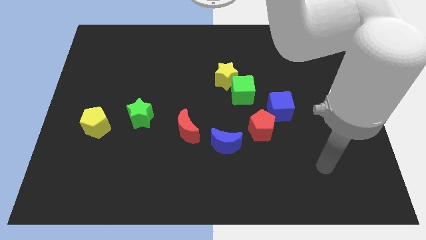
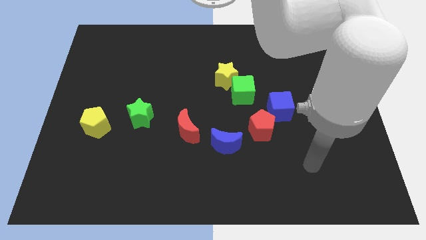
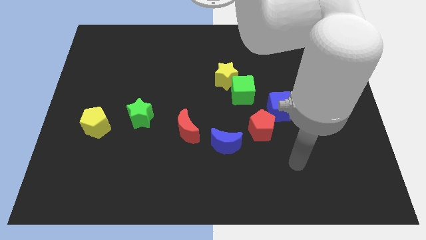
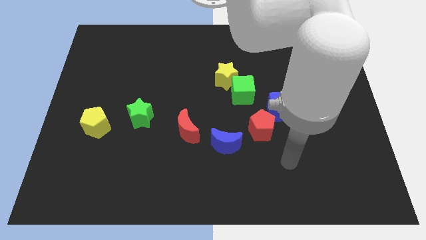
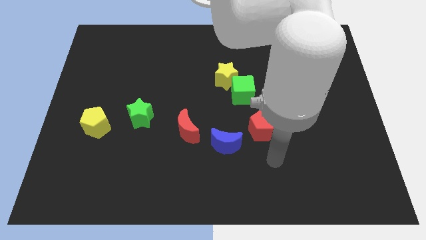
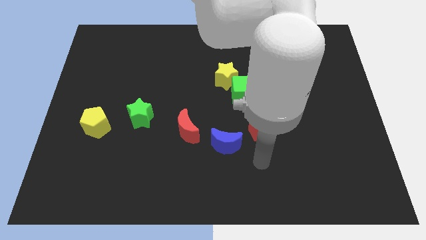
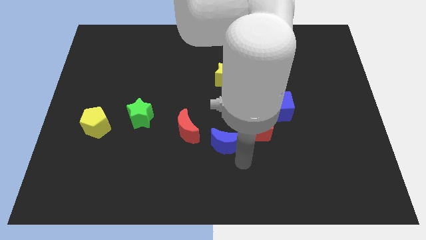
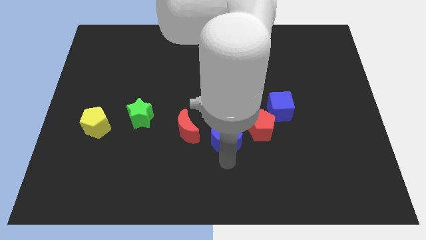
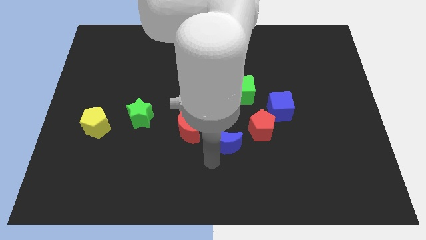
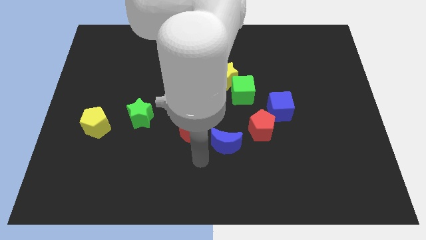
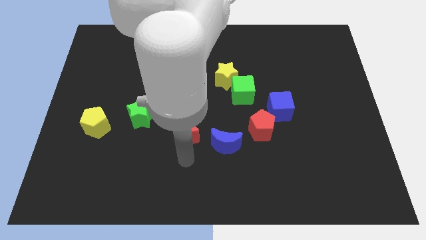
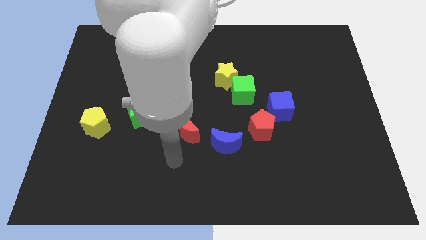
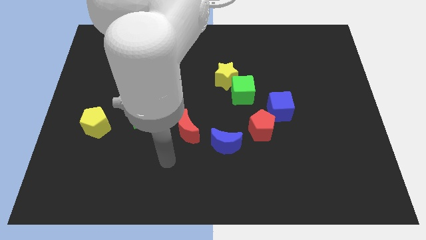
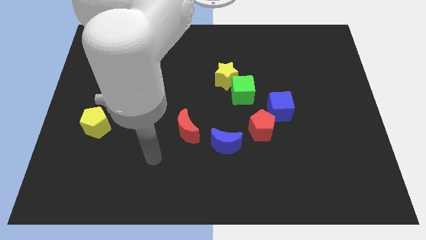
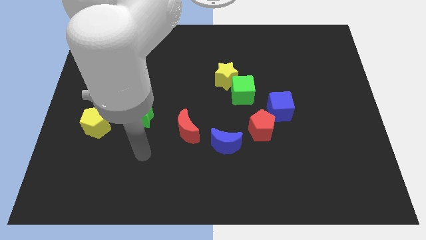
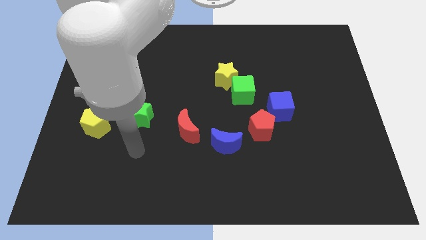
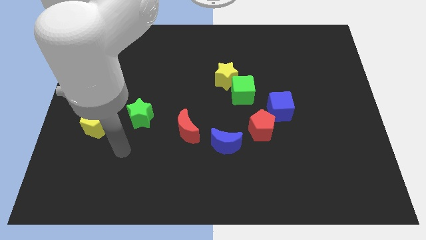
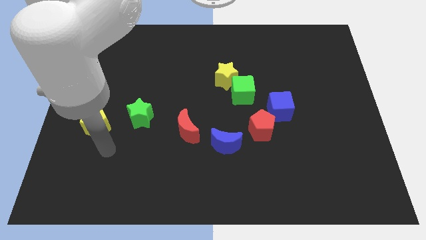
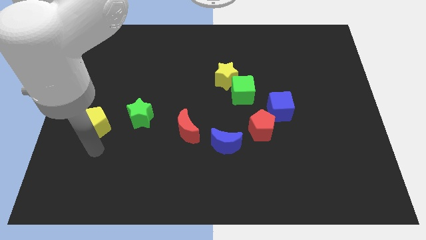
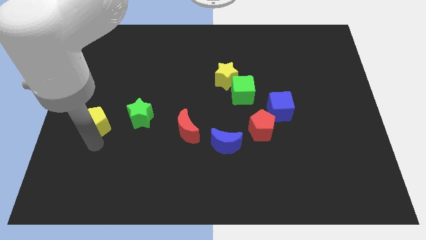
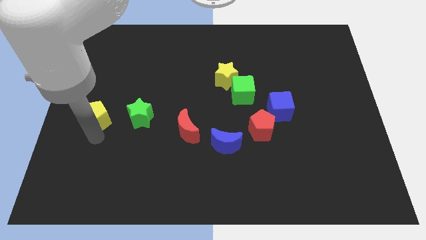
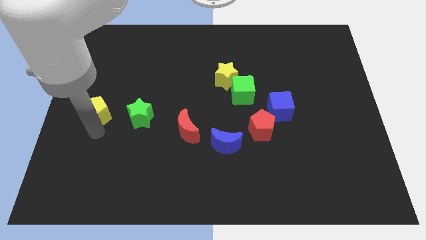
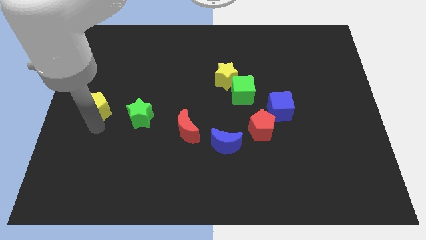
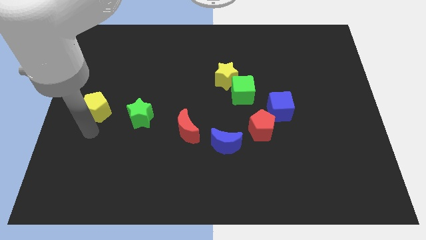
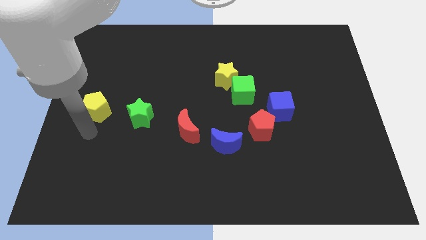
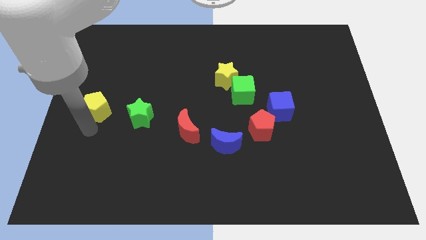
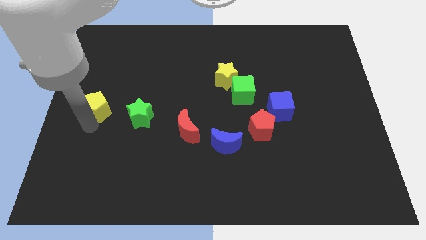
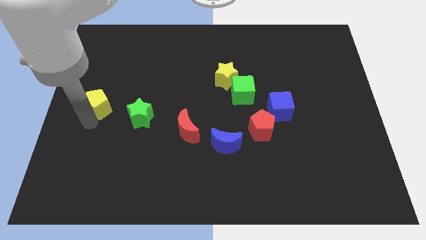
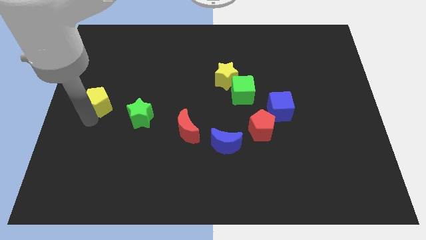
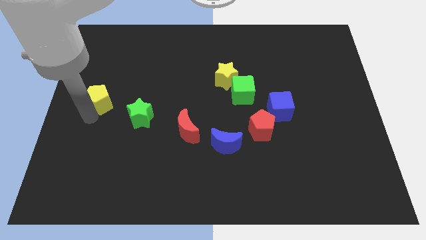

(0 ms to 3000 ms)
slightly push the yellow pentagon upwards

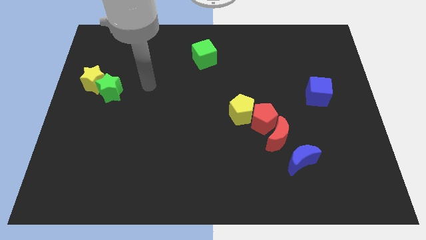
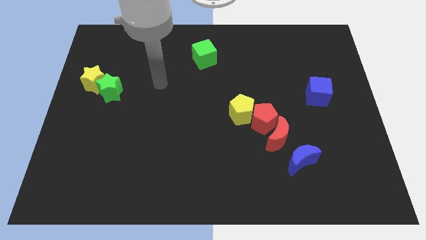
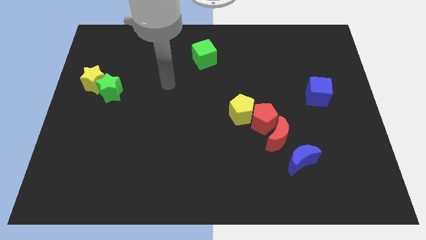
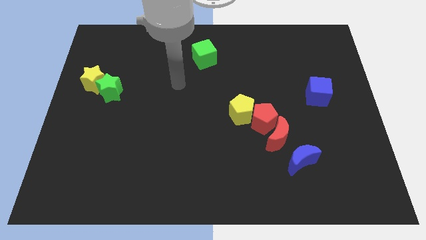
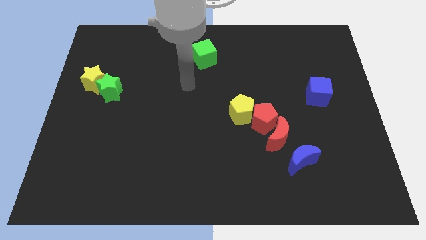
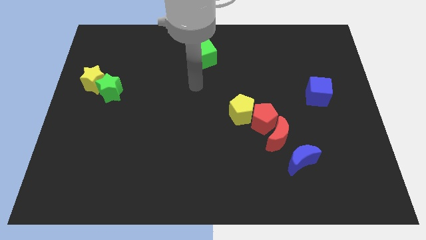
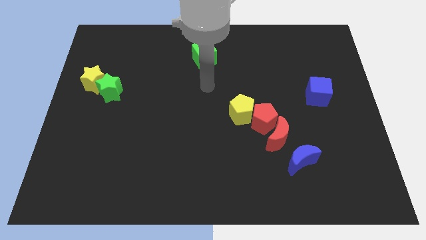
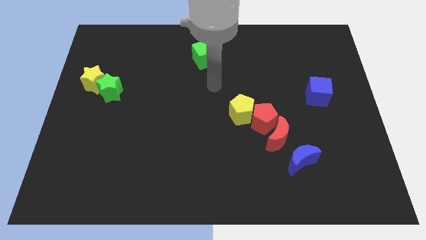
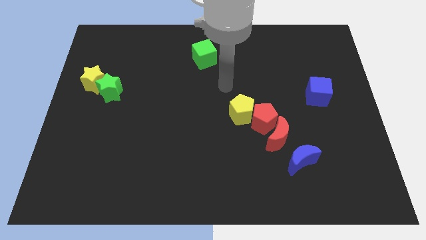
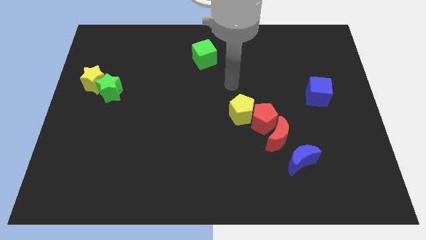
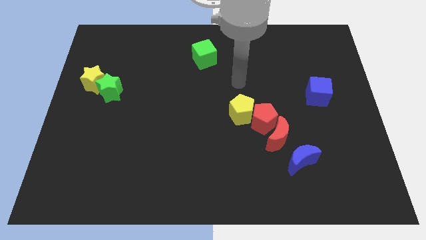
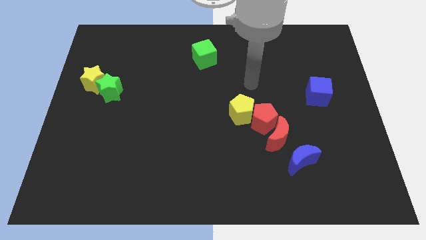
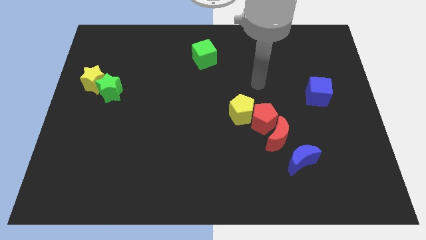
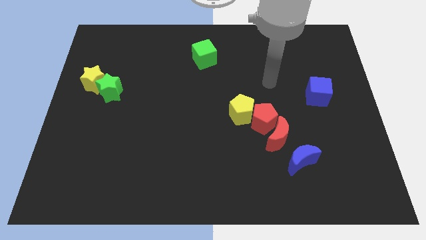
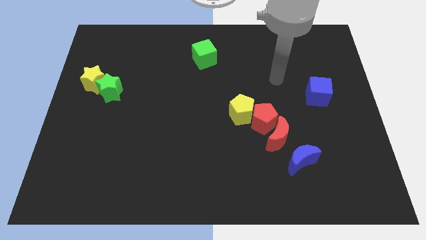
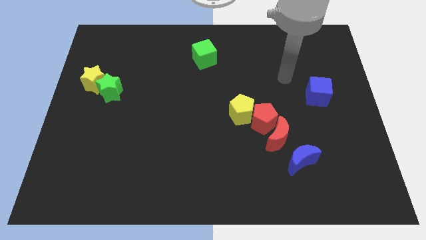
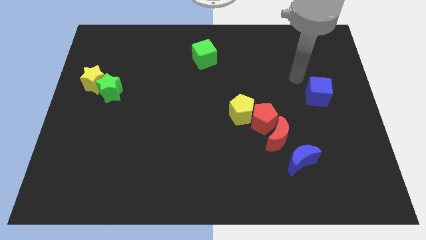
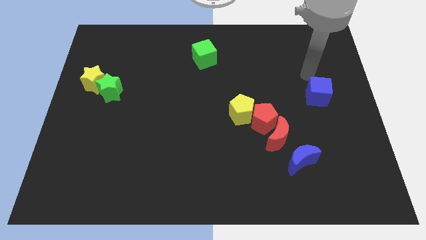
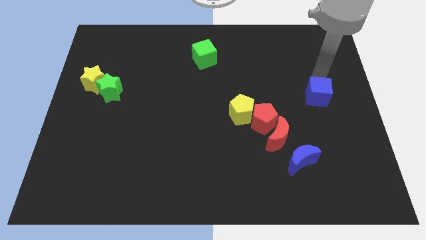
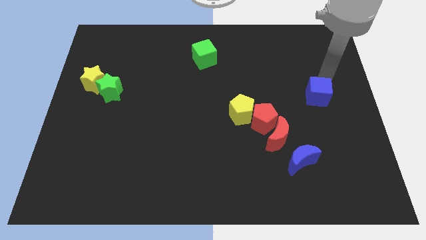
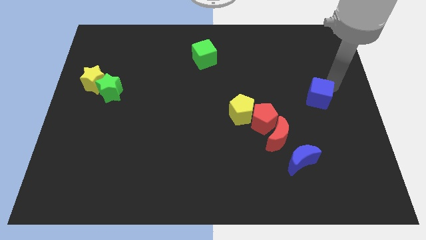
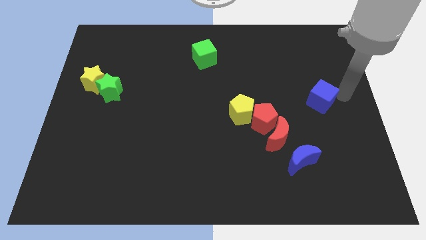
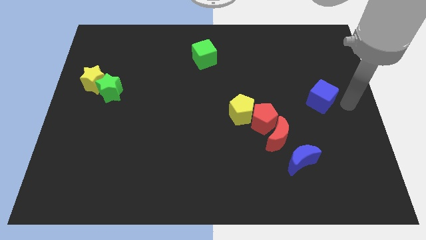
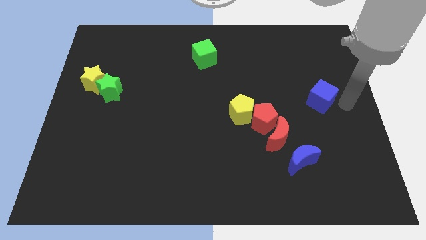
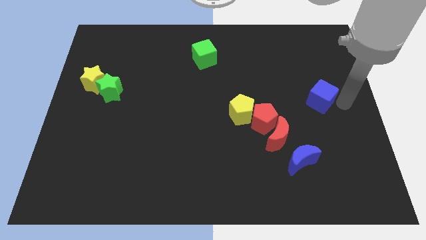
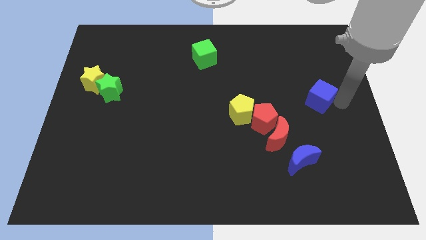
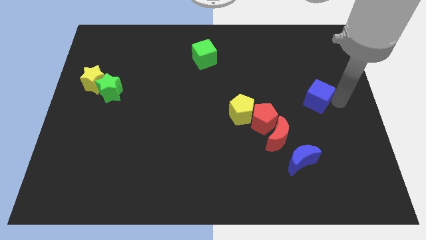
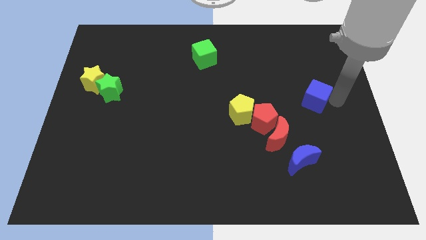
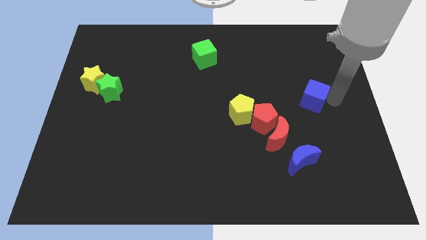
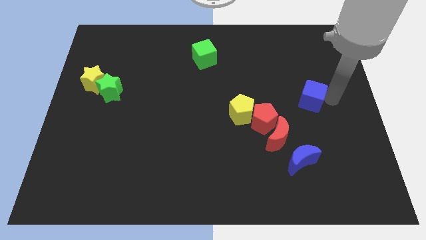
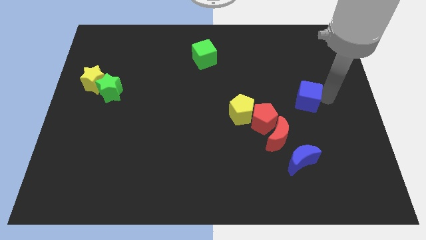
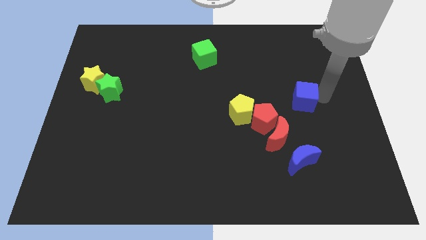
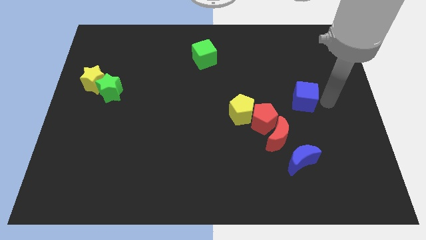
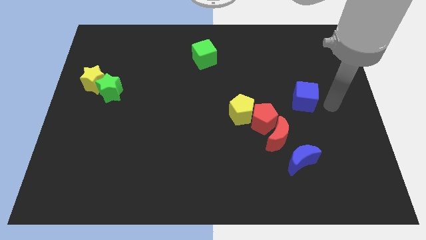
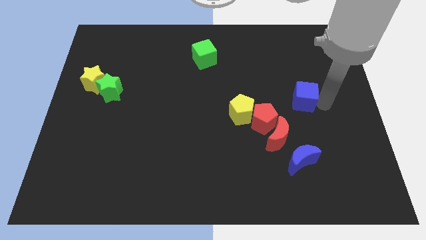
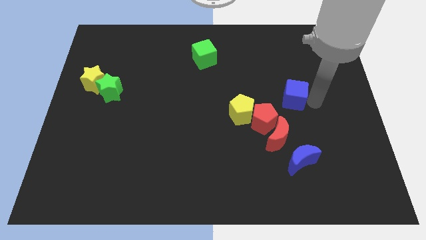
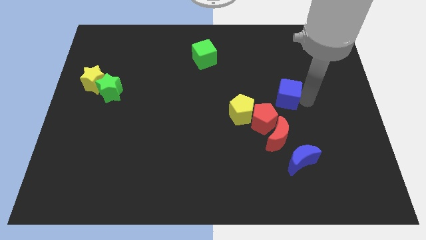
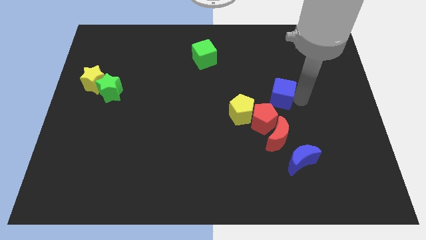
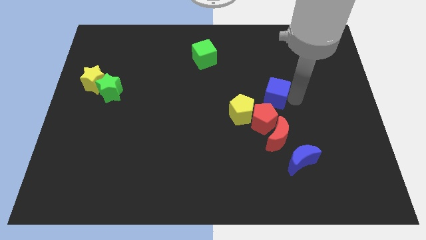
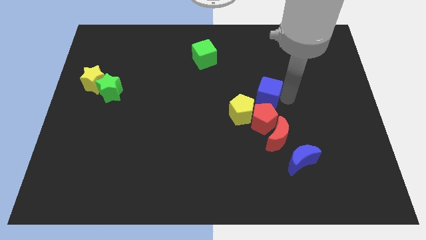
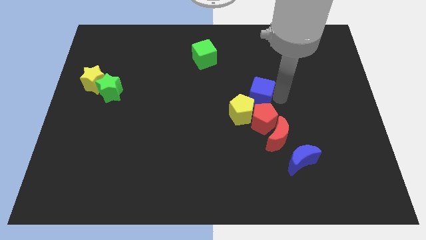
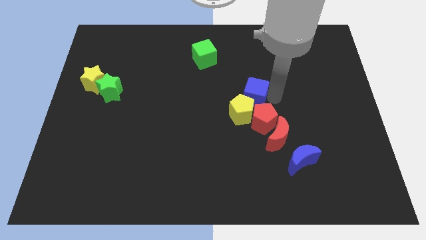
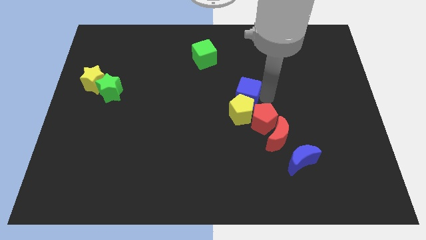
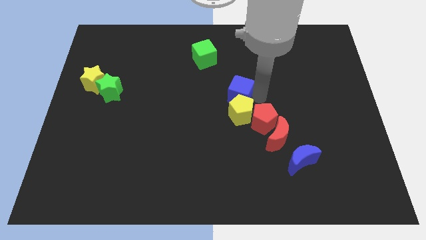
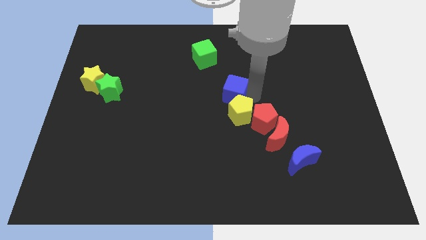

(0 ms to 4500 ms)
push the blue cube to the left

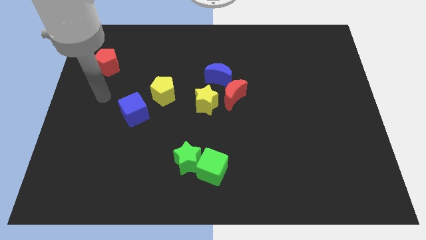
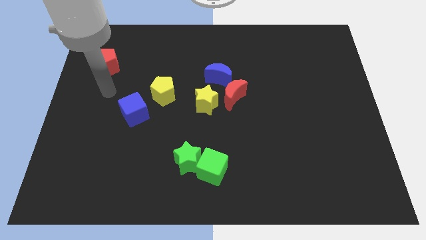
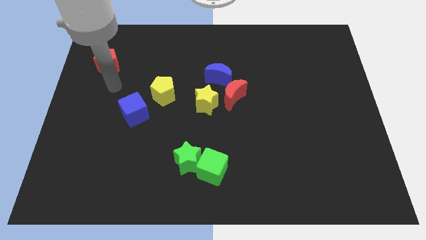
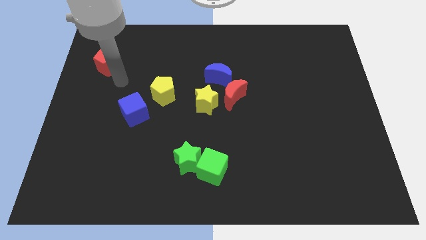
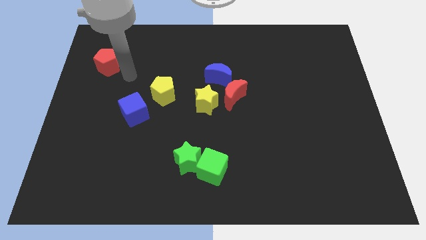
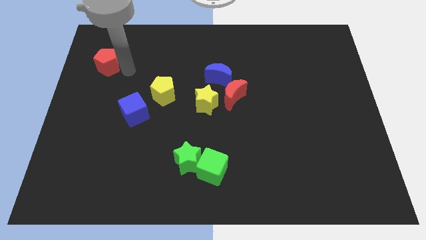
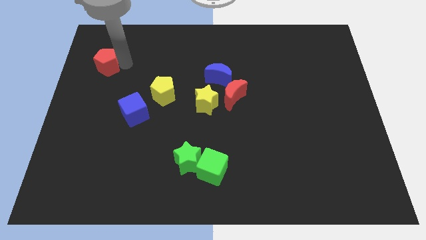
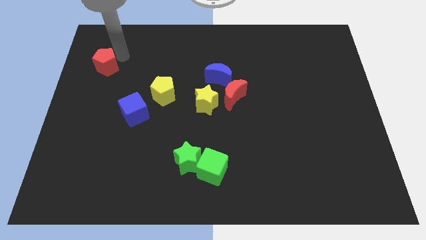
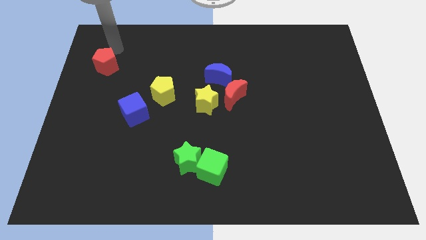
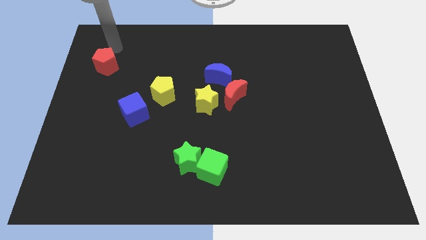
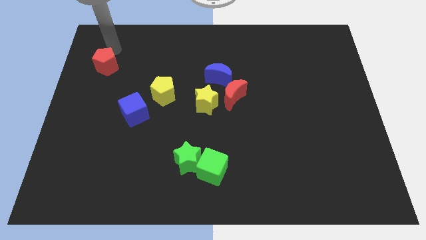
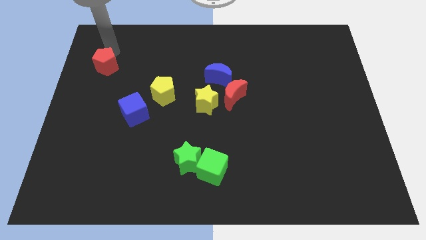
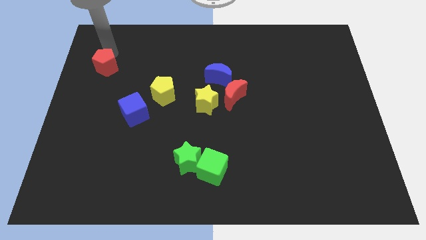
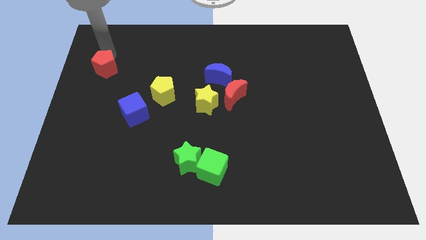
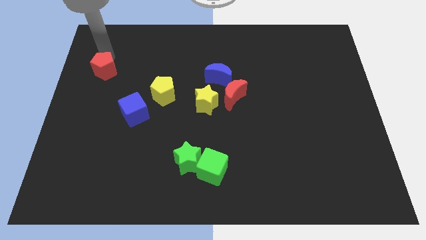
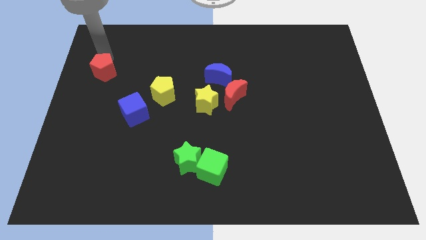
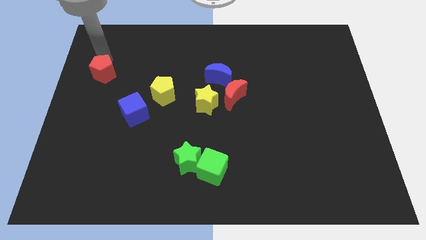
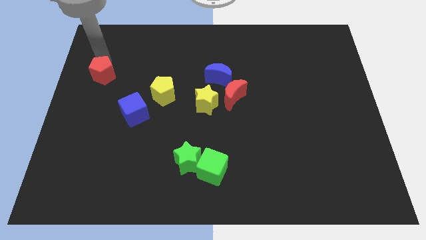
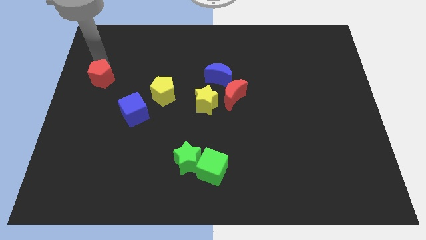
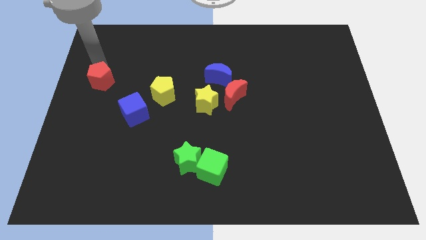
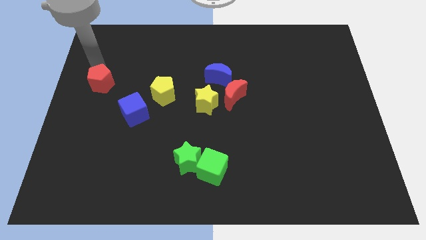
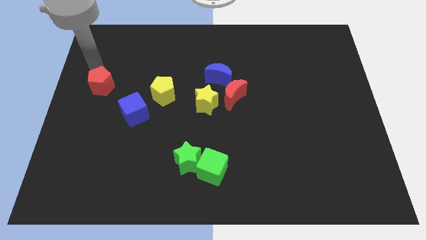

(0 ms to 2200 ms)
slightly push the red pentagon down
